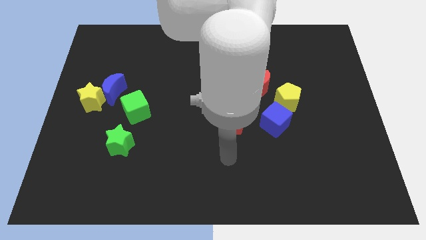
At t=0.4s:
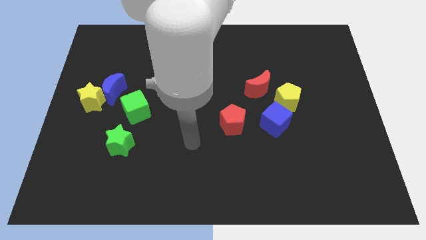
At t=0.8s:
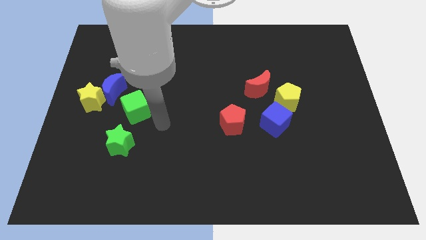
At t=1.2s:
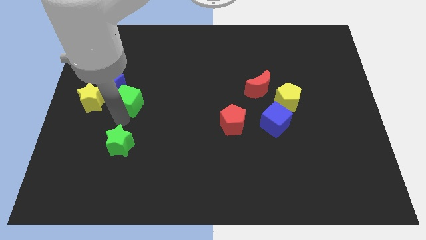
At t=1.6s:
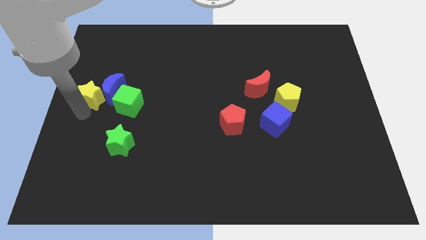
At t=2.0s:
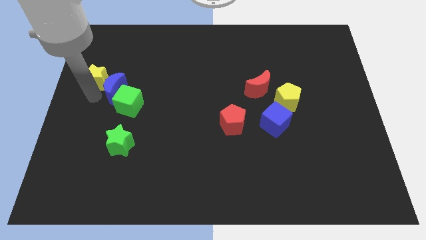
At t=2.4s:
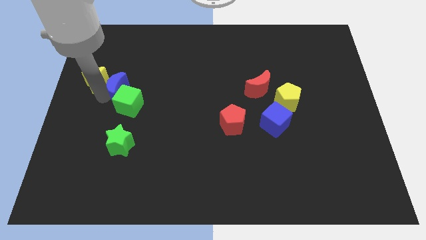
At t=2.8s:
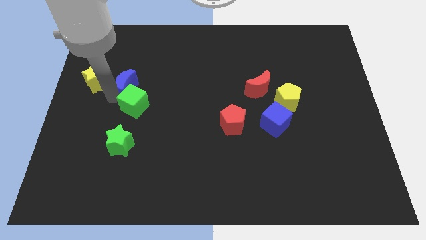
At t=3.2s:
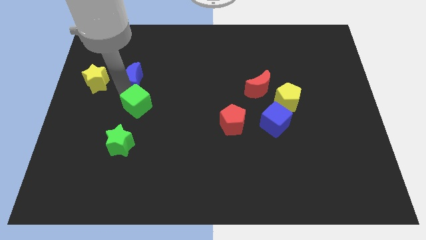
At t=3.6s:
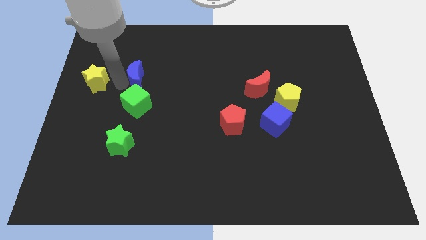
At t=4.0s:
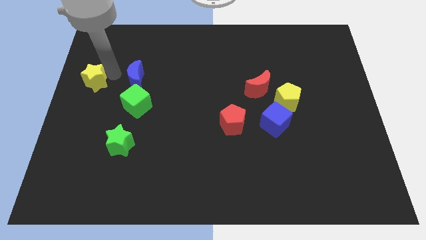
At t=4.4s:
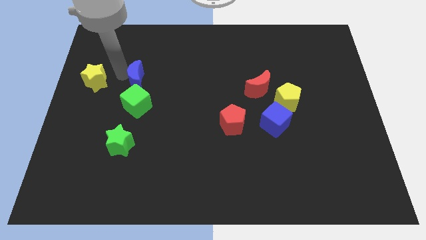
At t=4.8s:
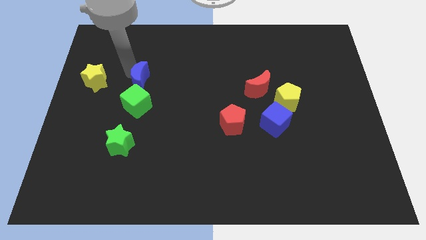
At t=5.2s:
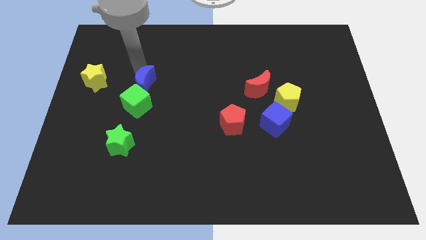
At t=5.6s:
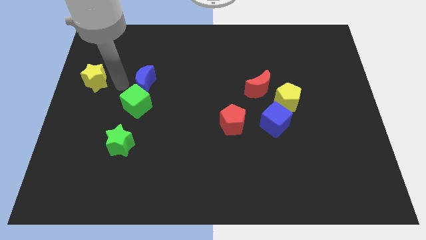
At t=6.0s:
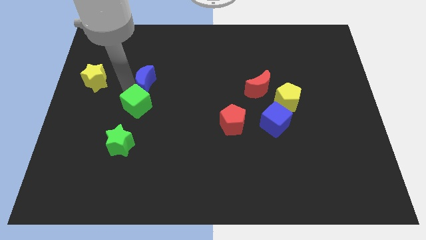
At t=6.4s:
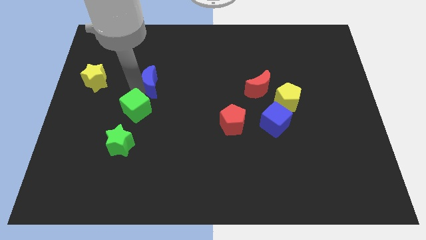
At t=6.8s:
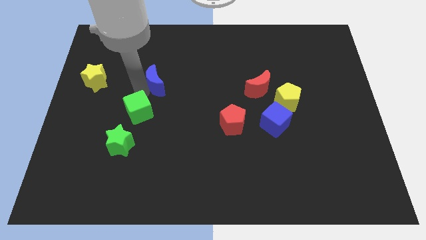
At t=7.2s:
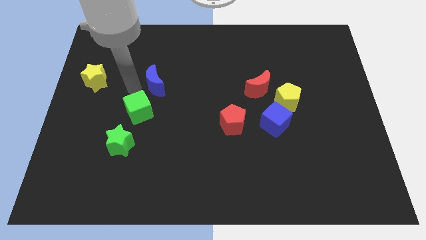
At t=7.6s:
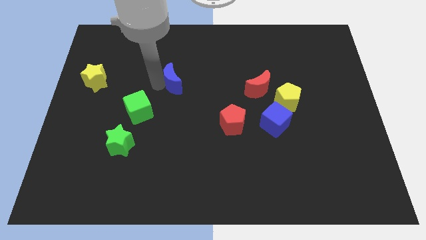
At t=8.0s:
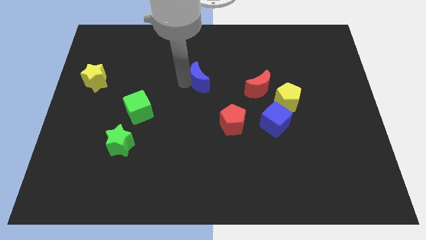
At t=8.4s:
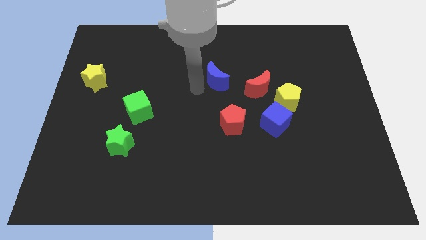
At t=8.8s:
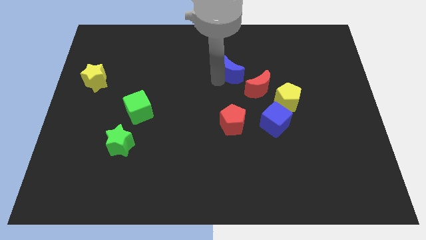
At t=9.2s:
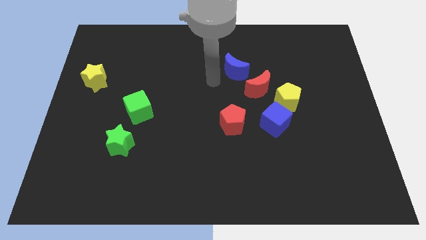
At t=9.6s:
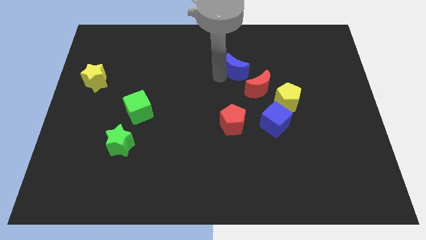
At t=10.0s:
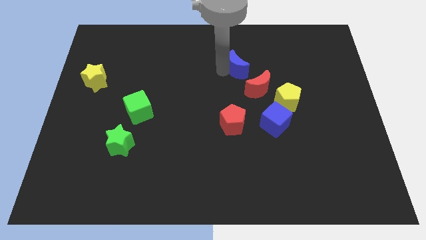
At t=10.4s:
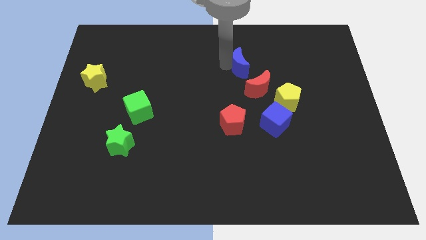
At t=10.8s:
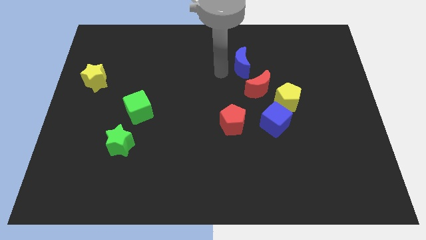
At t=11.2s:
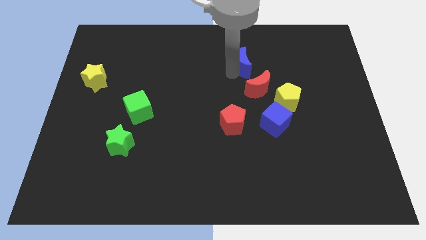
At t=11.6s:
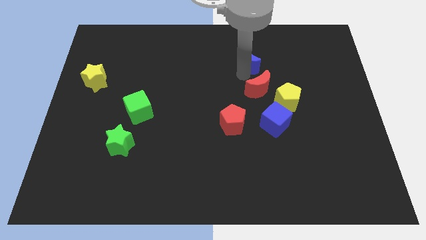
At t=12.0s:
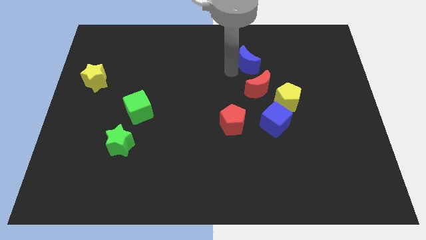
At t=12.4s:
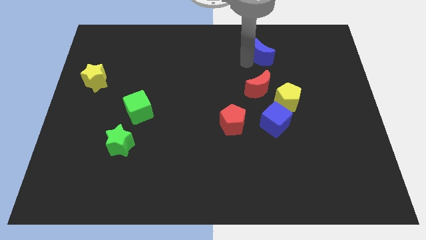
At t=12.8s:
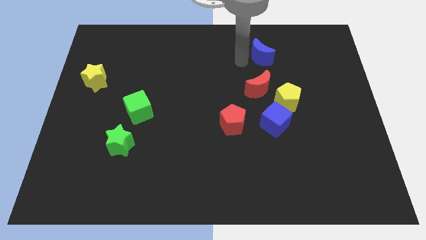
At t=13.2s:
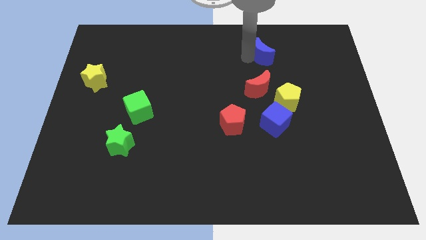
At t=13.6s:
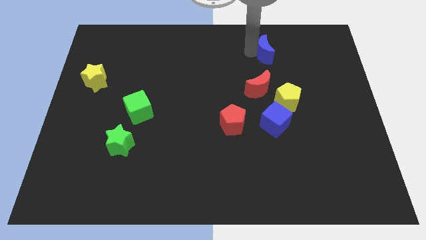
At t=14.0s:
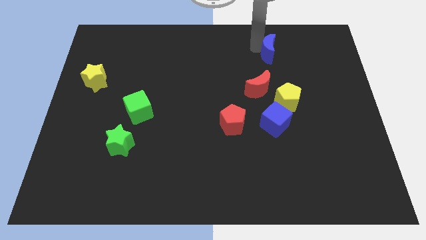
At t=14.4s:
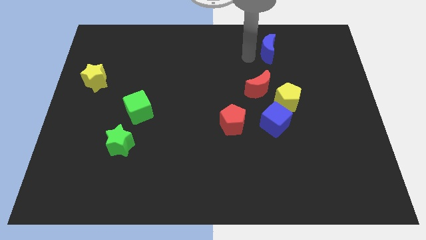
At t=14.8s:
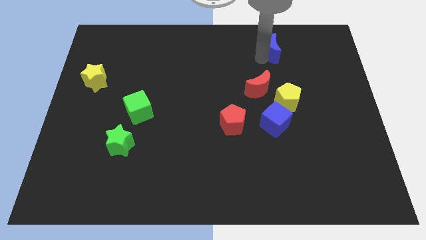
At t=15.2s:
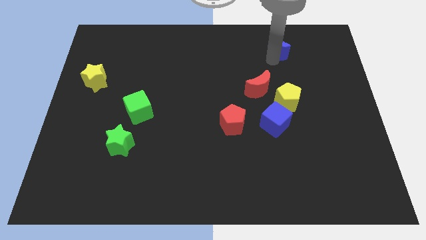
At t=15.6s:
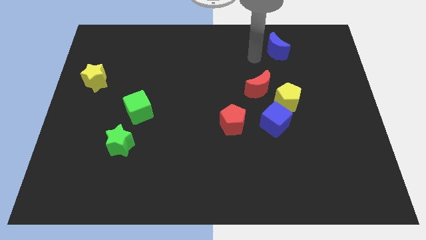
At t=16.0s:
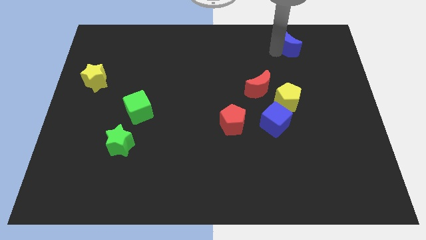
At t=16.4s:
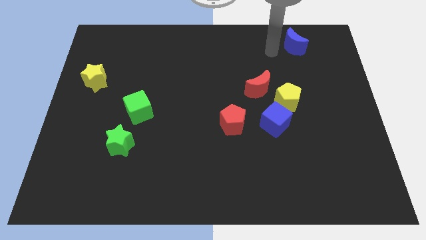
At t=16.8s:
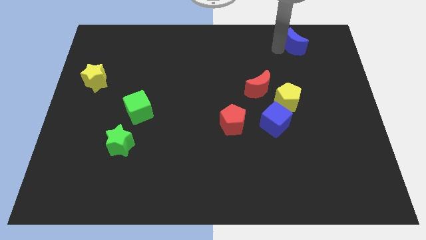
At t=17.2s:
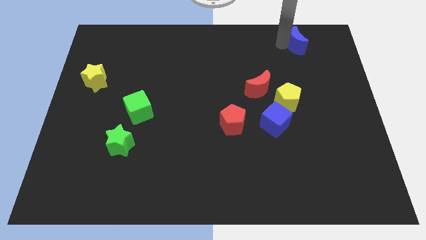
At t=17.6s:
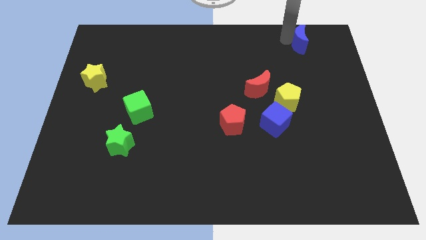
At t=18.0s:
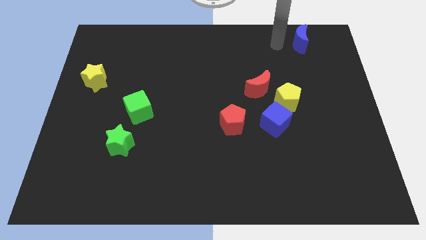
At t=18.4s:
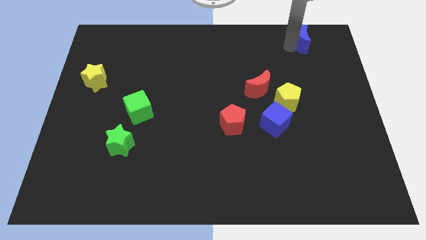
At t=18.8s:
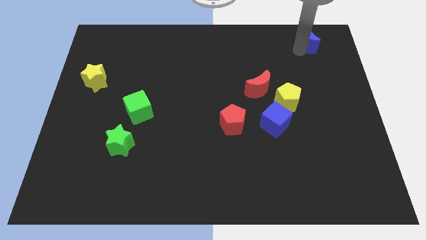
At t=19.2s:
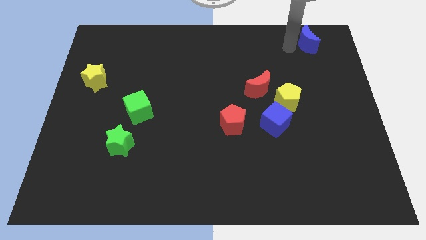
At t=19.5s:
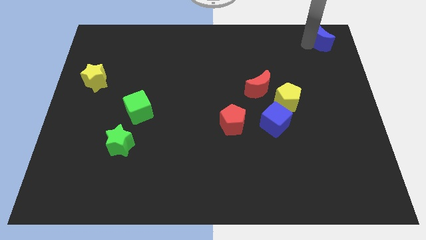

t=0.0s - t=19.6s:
put the blue moon to the top right of the board

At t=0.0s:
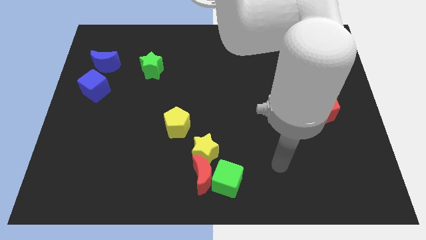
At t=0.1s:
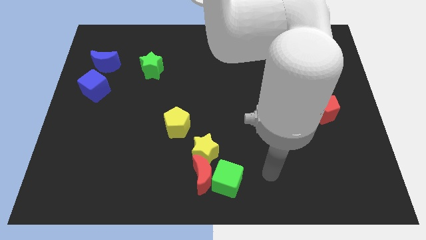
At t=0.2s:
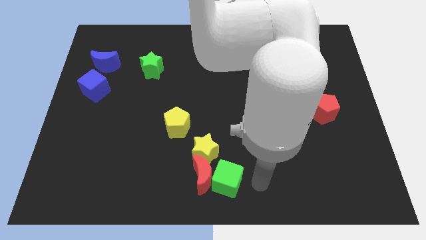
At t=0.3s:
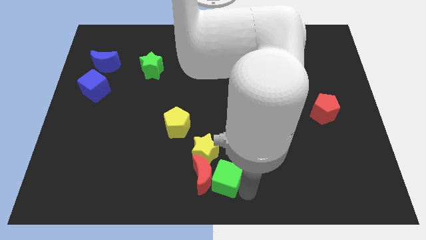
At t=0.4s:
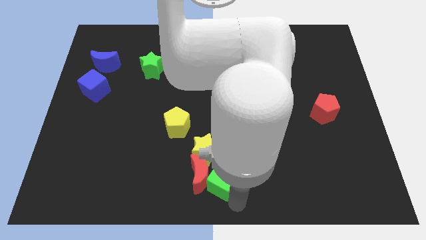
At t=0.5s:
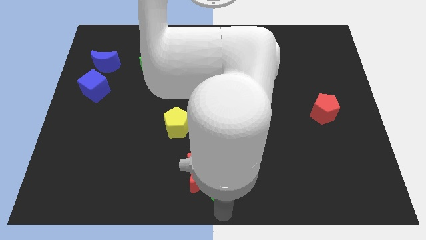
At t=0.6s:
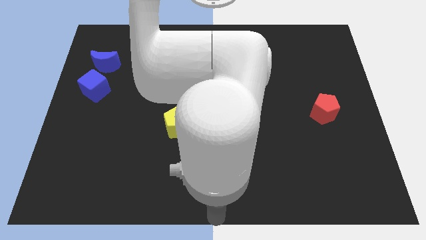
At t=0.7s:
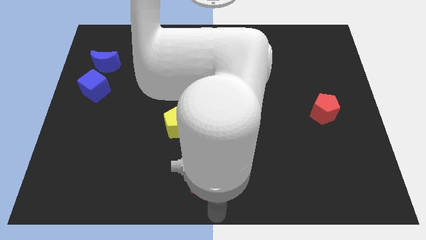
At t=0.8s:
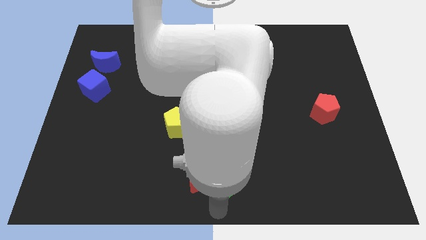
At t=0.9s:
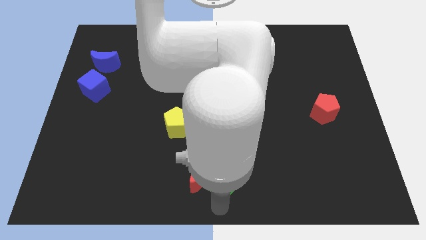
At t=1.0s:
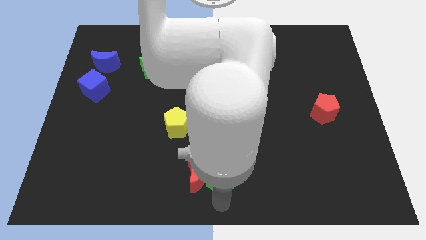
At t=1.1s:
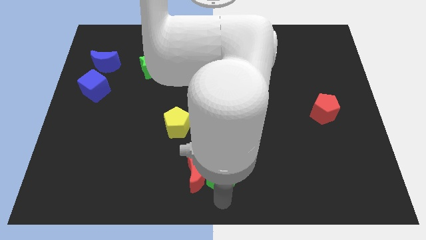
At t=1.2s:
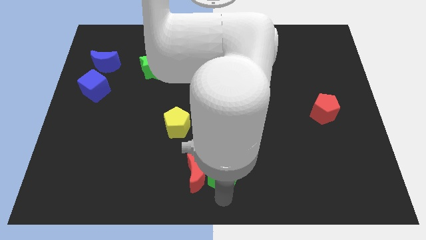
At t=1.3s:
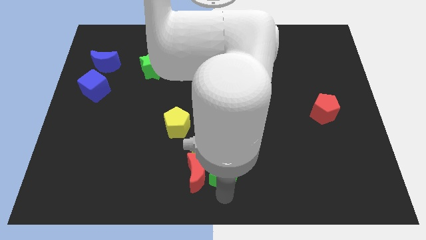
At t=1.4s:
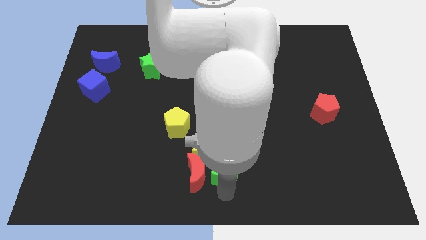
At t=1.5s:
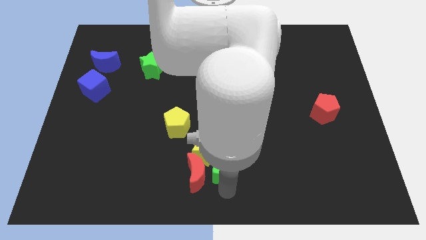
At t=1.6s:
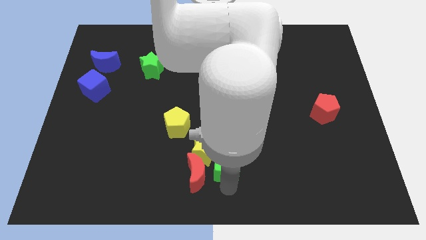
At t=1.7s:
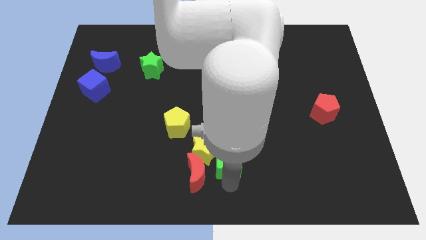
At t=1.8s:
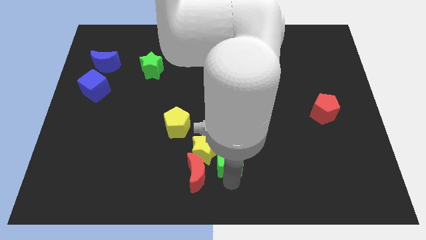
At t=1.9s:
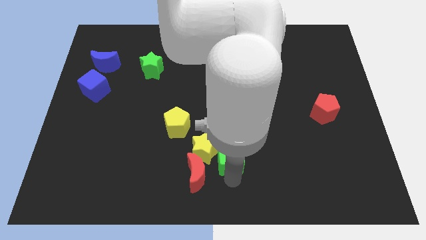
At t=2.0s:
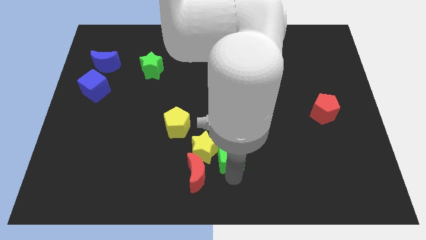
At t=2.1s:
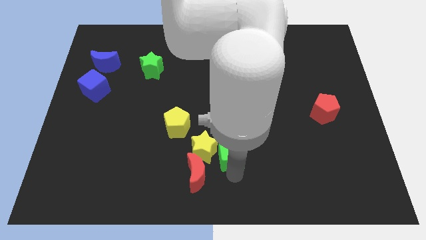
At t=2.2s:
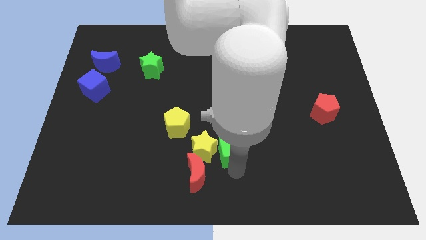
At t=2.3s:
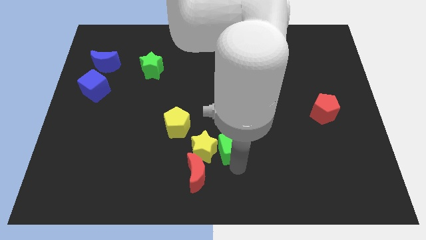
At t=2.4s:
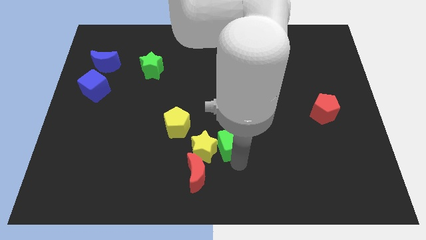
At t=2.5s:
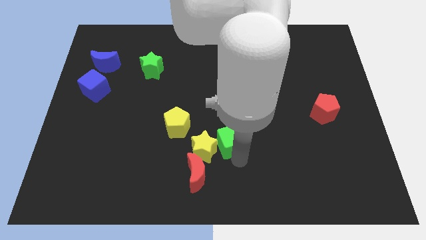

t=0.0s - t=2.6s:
push the green cube to the middle
